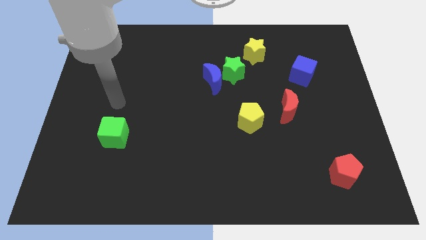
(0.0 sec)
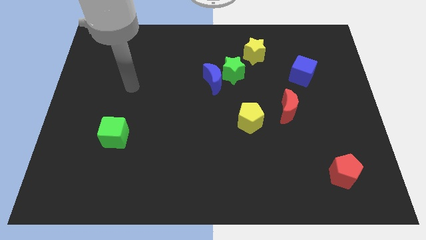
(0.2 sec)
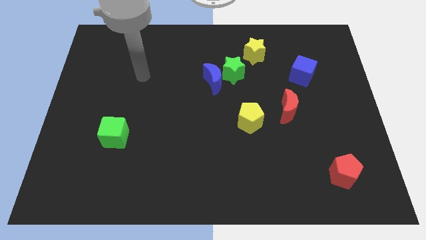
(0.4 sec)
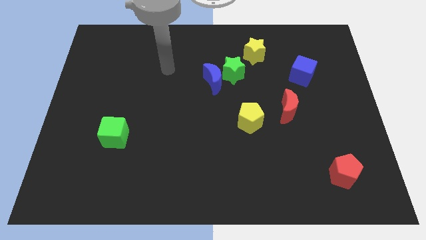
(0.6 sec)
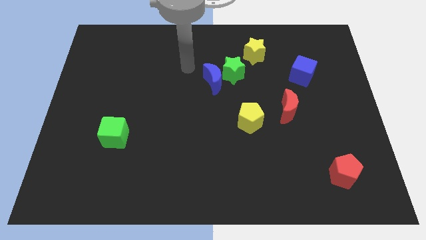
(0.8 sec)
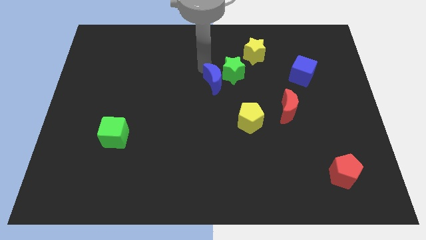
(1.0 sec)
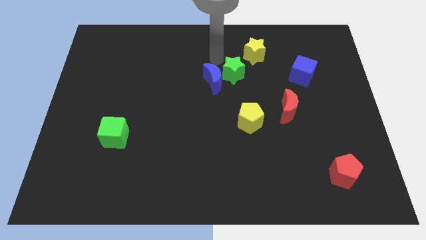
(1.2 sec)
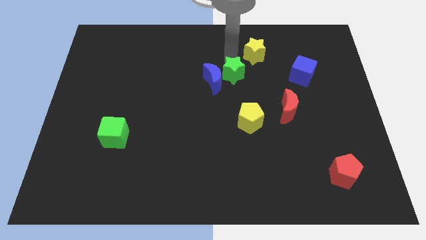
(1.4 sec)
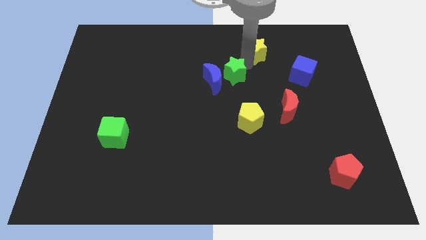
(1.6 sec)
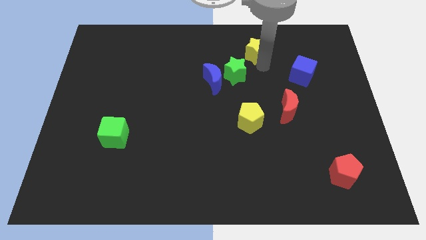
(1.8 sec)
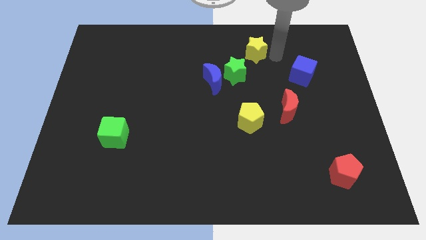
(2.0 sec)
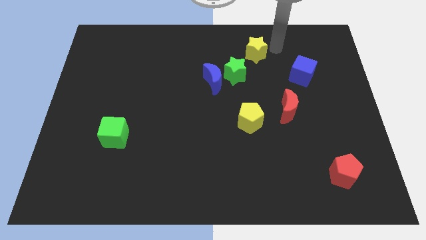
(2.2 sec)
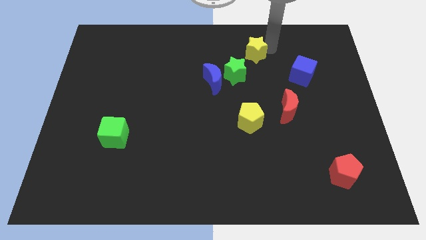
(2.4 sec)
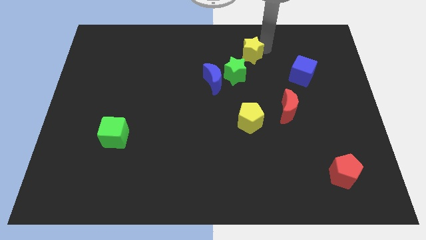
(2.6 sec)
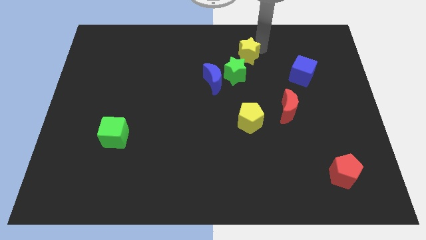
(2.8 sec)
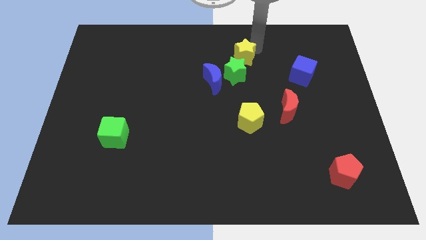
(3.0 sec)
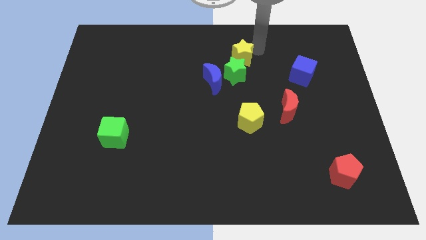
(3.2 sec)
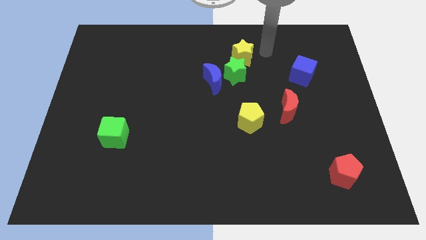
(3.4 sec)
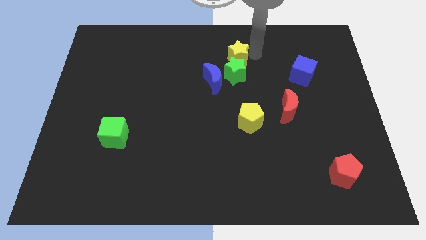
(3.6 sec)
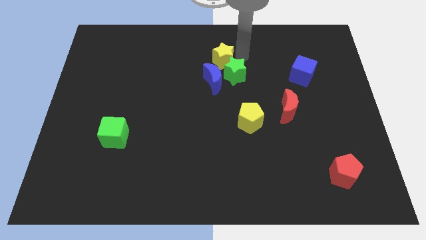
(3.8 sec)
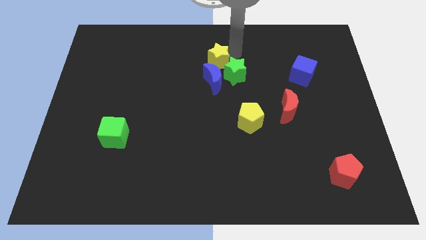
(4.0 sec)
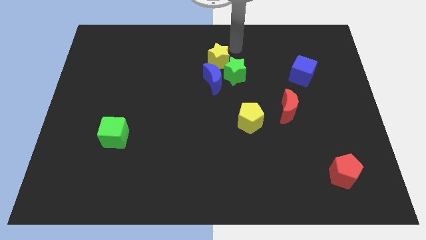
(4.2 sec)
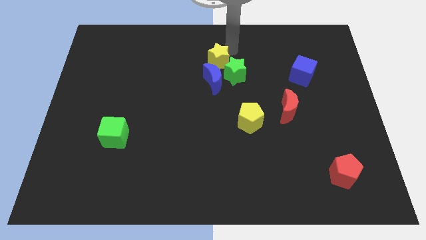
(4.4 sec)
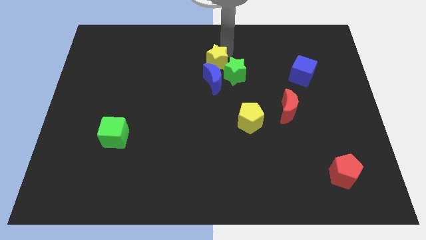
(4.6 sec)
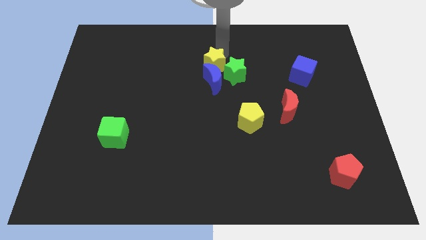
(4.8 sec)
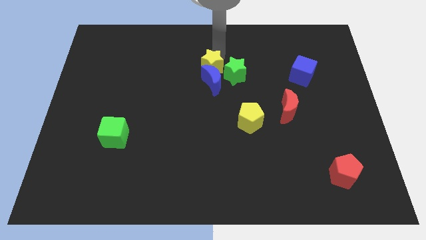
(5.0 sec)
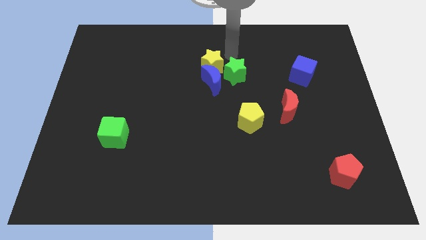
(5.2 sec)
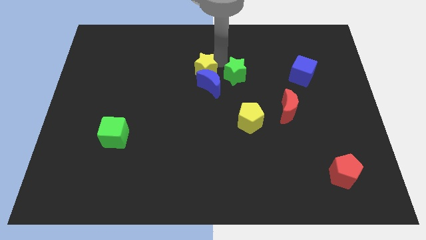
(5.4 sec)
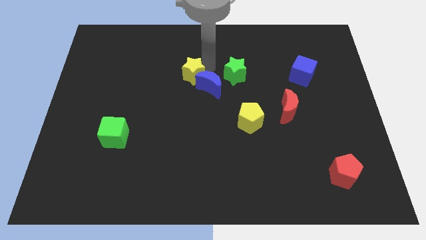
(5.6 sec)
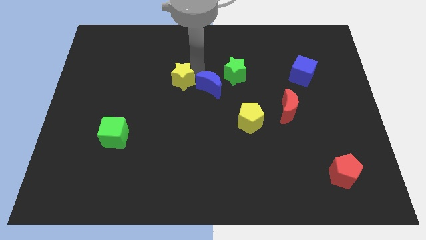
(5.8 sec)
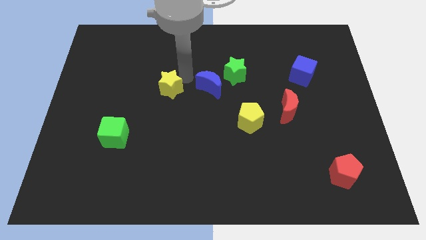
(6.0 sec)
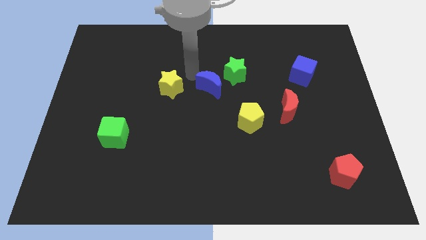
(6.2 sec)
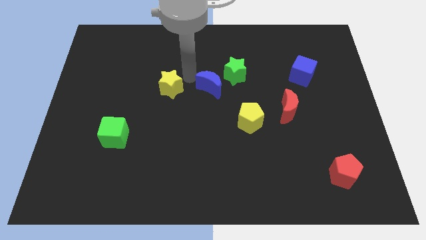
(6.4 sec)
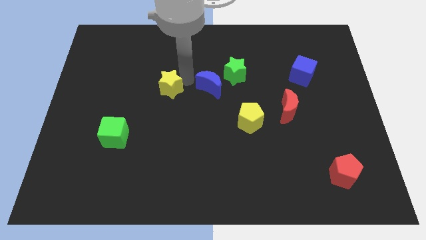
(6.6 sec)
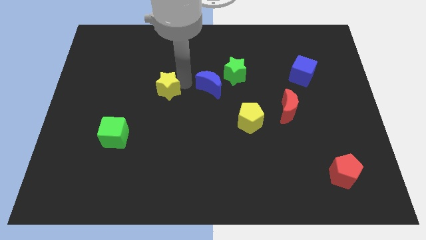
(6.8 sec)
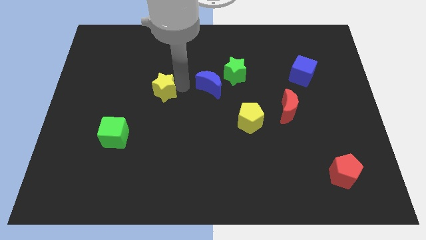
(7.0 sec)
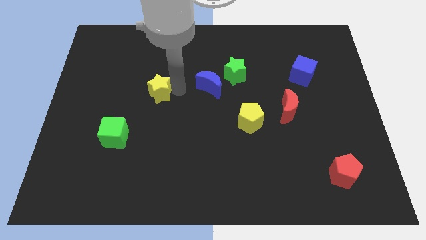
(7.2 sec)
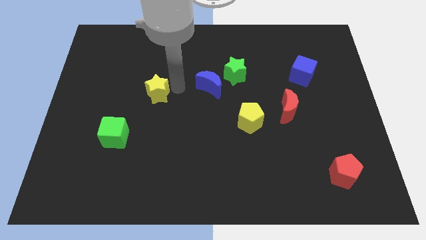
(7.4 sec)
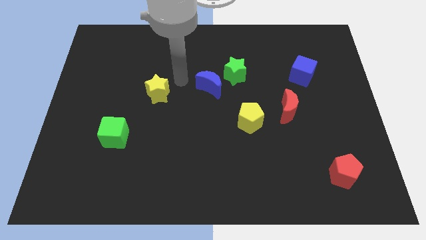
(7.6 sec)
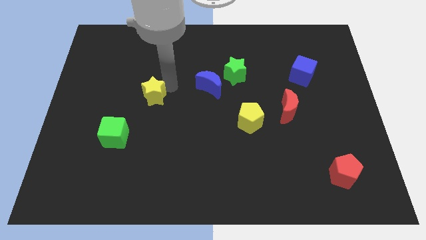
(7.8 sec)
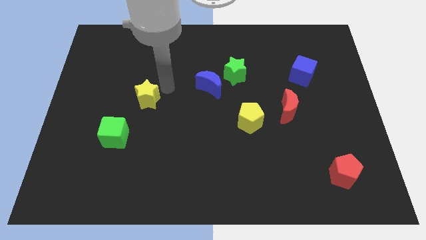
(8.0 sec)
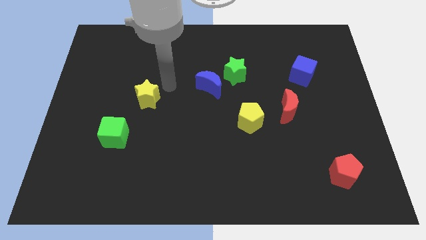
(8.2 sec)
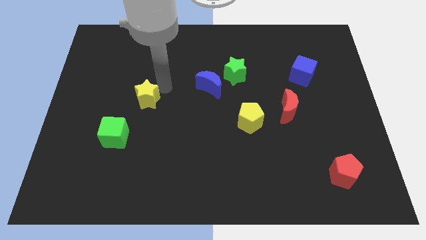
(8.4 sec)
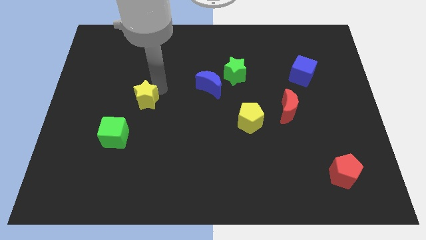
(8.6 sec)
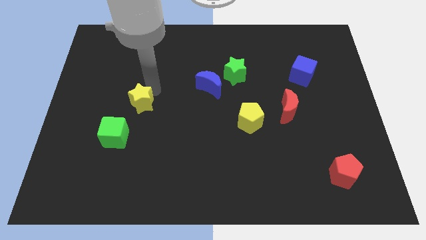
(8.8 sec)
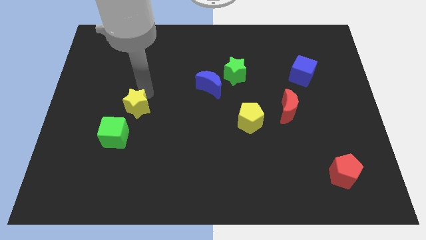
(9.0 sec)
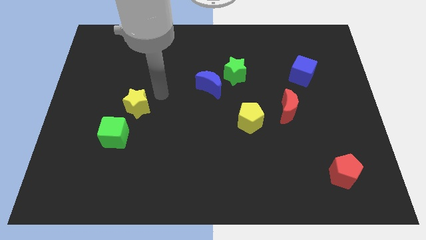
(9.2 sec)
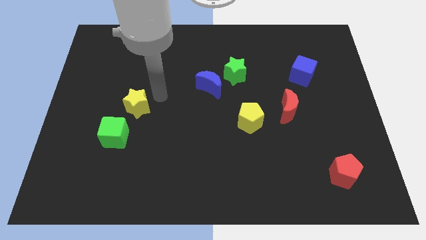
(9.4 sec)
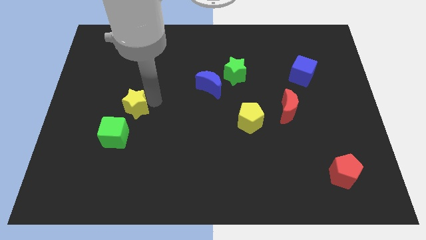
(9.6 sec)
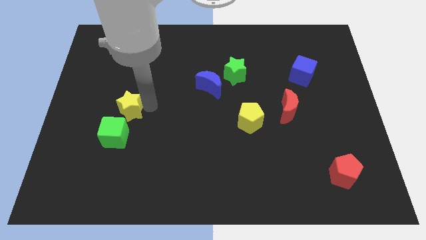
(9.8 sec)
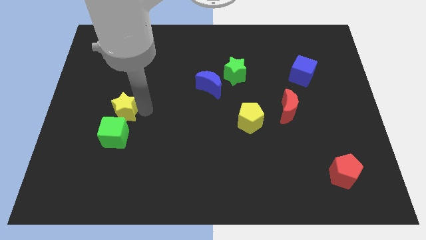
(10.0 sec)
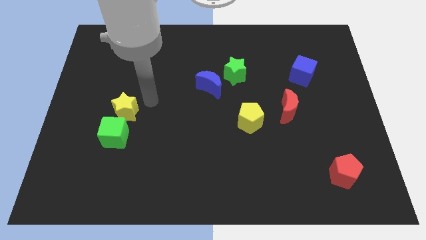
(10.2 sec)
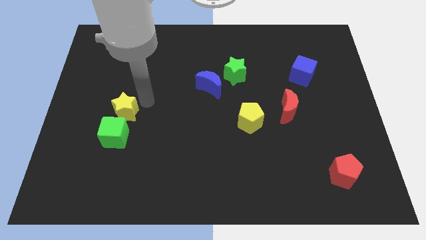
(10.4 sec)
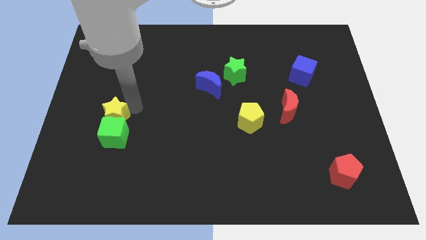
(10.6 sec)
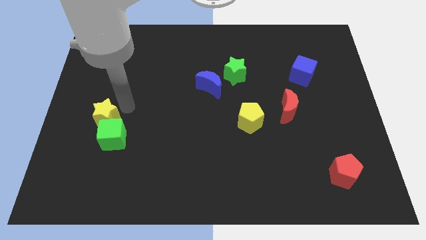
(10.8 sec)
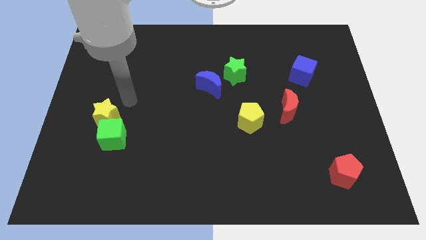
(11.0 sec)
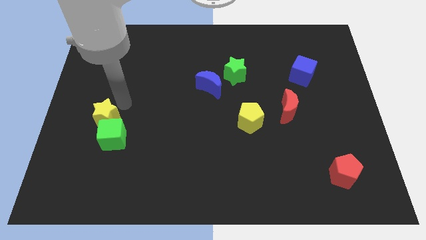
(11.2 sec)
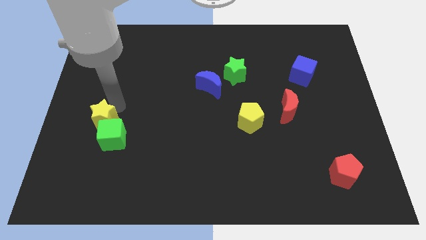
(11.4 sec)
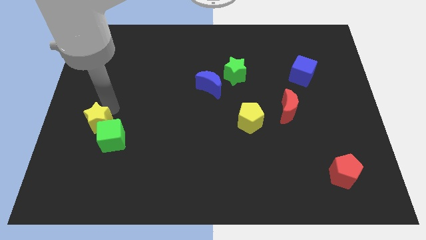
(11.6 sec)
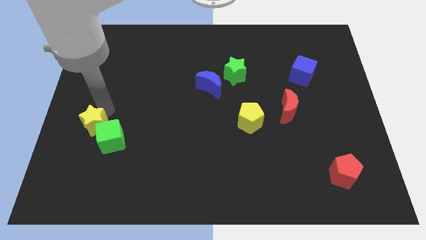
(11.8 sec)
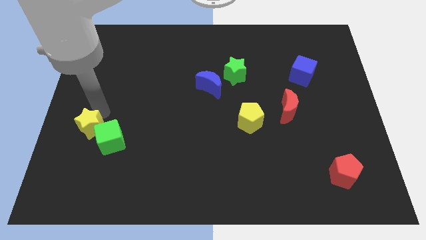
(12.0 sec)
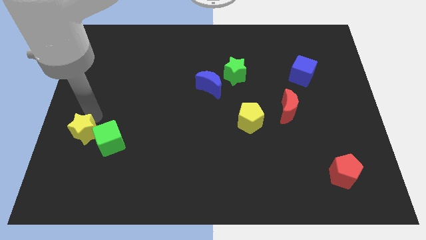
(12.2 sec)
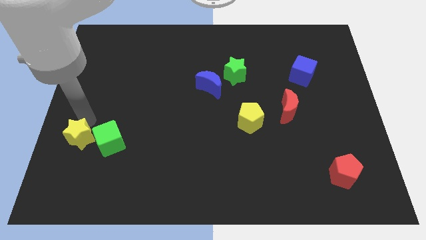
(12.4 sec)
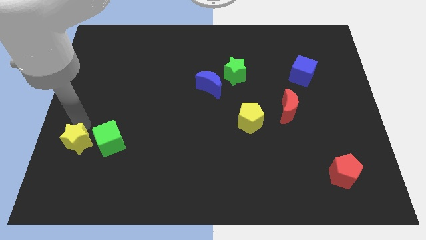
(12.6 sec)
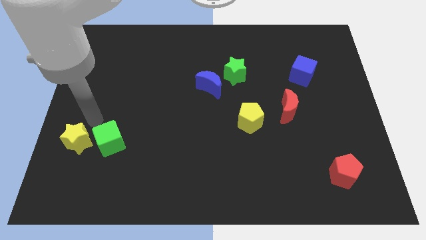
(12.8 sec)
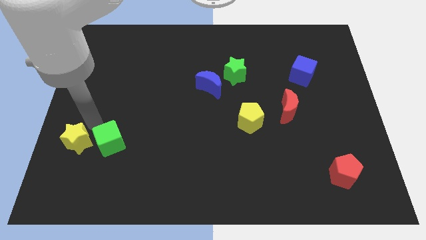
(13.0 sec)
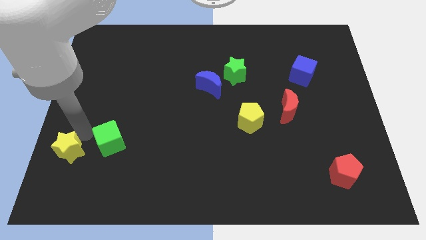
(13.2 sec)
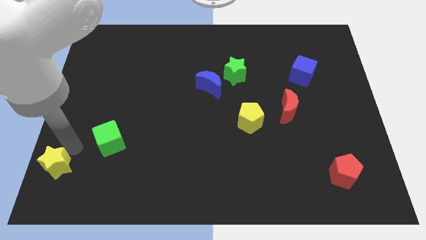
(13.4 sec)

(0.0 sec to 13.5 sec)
slide the yellow star to the lower left corner
